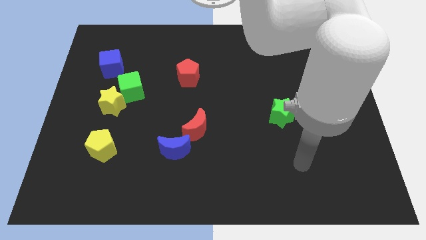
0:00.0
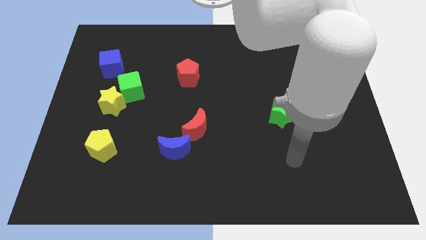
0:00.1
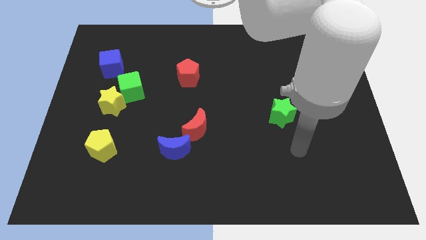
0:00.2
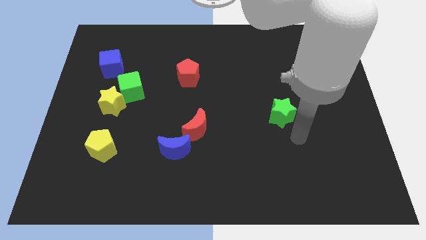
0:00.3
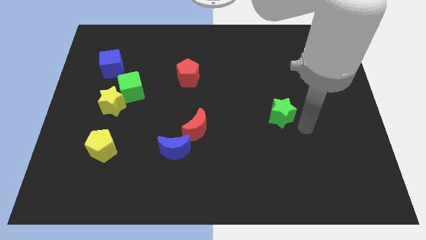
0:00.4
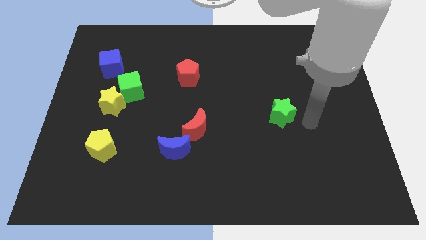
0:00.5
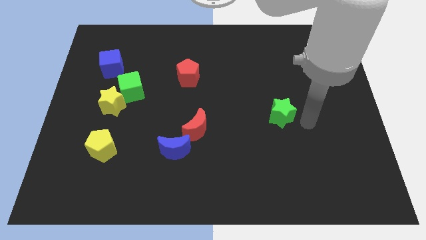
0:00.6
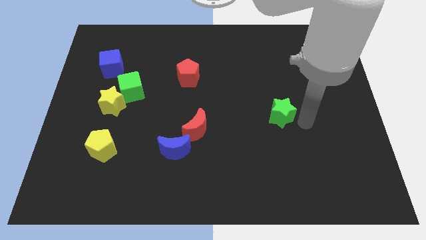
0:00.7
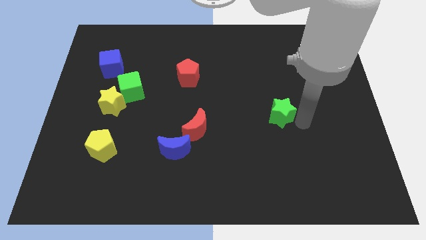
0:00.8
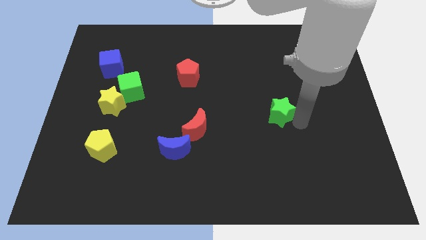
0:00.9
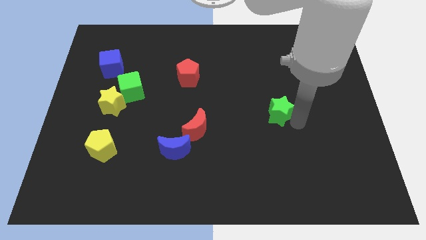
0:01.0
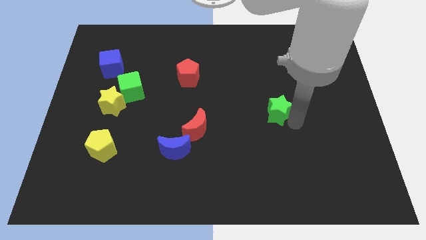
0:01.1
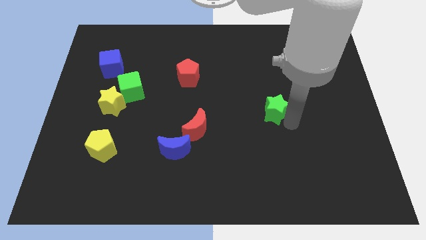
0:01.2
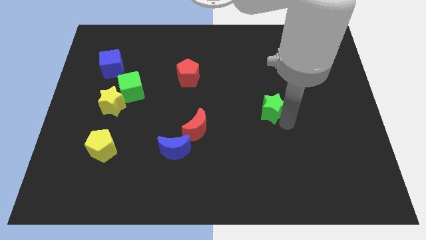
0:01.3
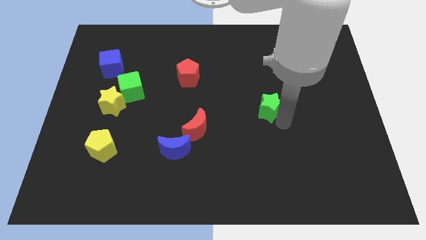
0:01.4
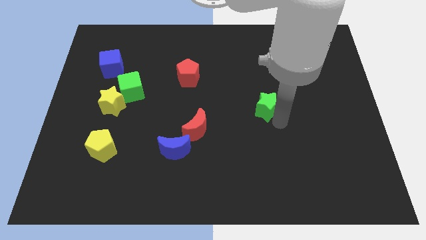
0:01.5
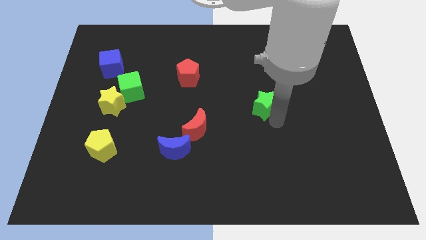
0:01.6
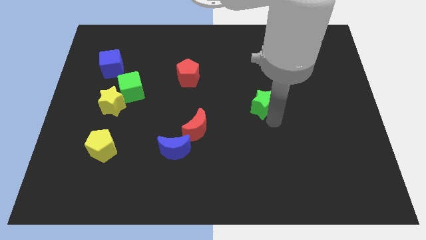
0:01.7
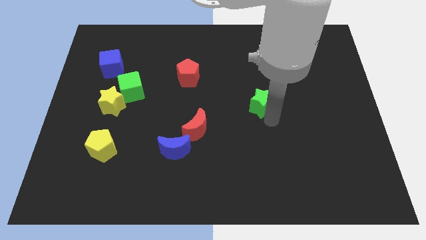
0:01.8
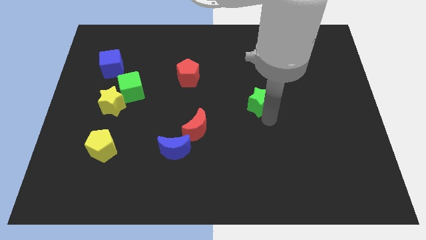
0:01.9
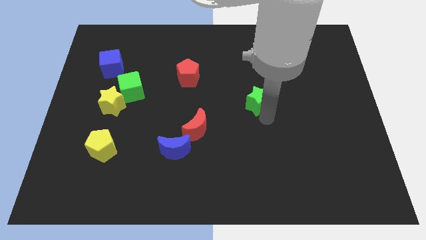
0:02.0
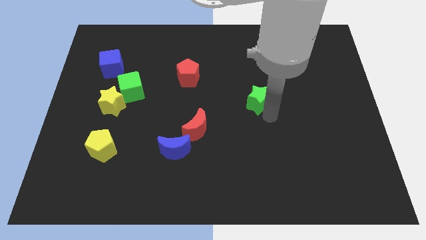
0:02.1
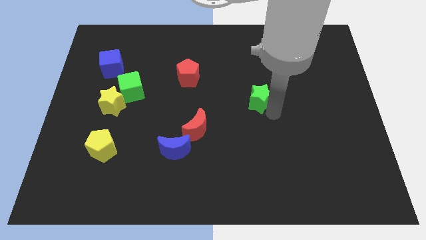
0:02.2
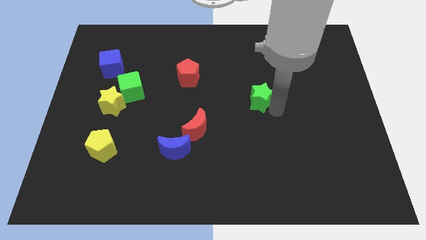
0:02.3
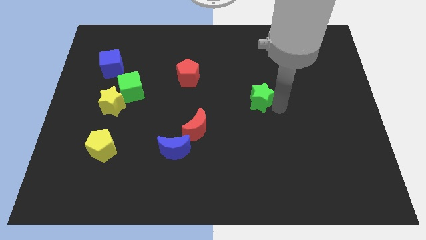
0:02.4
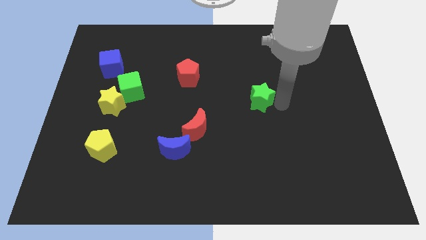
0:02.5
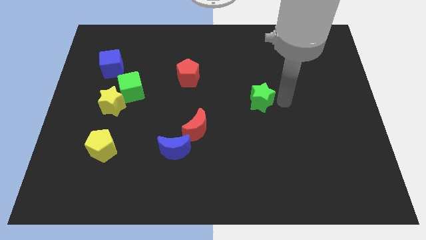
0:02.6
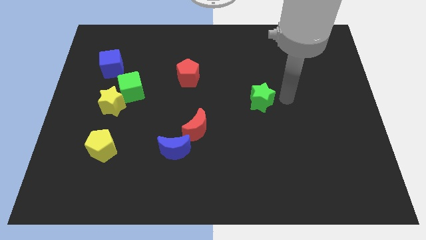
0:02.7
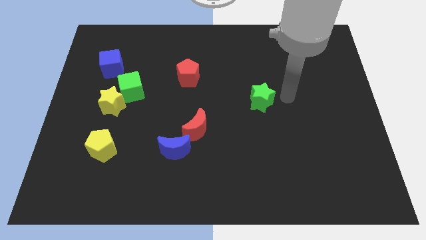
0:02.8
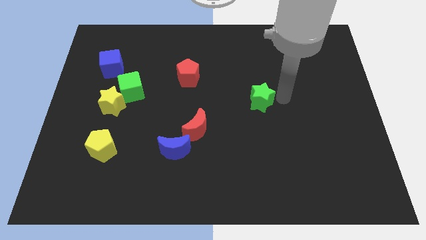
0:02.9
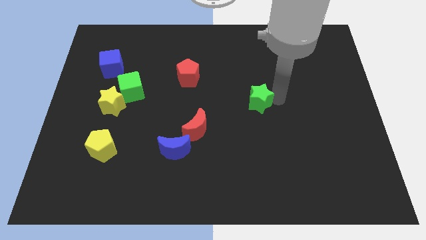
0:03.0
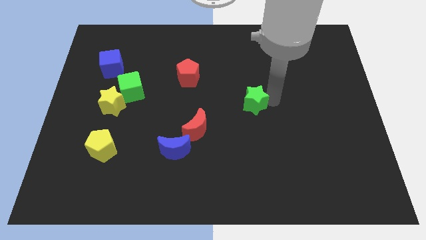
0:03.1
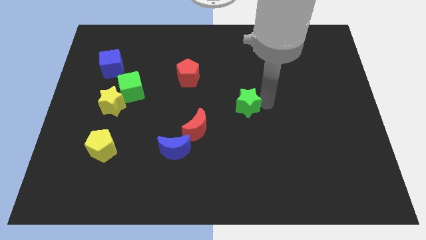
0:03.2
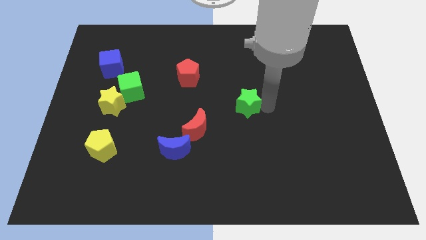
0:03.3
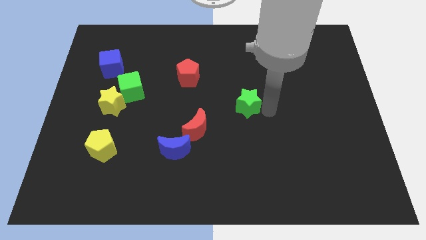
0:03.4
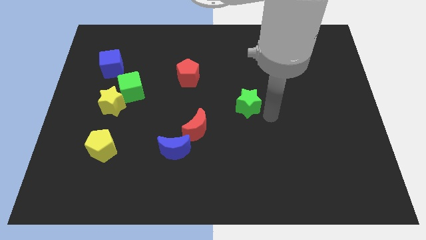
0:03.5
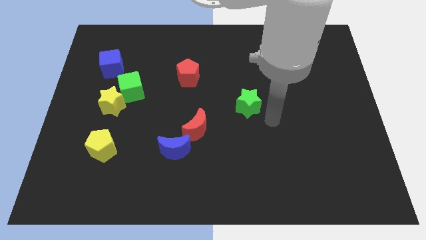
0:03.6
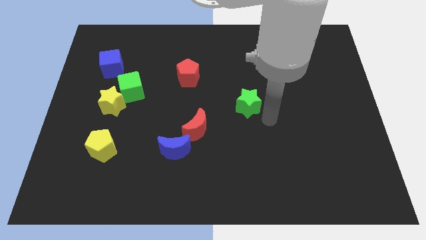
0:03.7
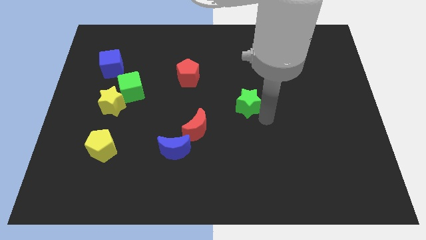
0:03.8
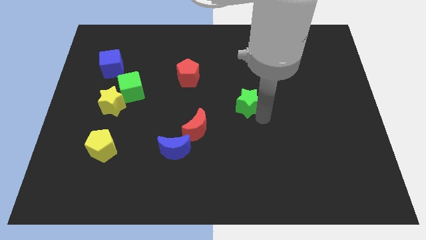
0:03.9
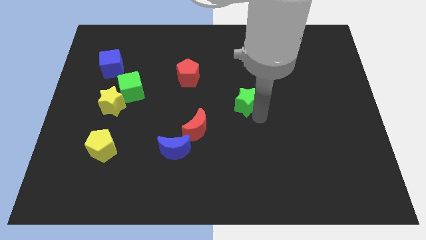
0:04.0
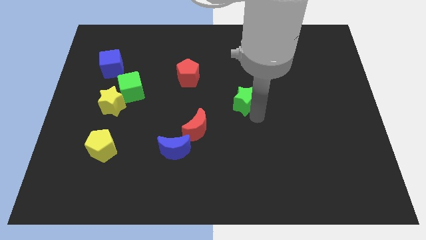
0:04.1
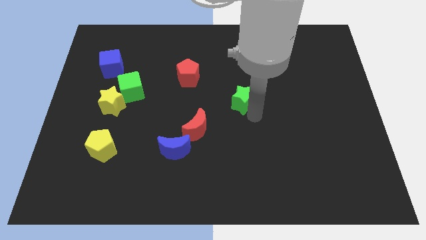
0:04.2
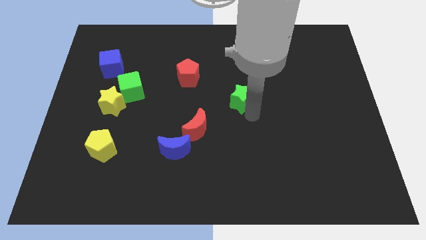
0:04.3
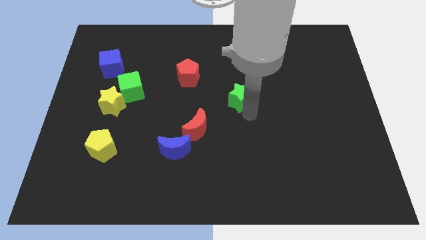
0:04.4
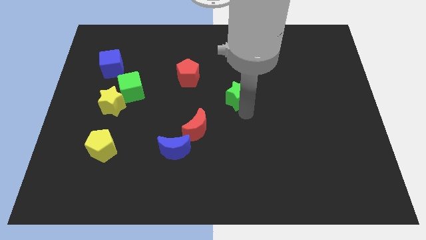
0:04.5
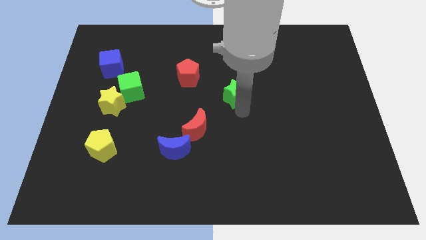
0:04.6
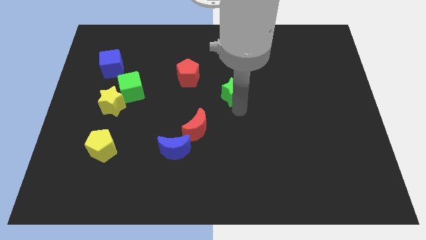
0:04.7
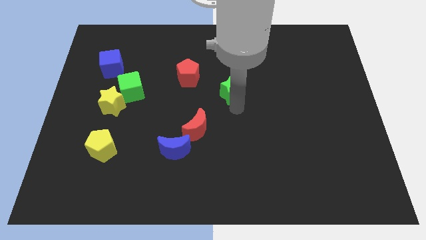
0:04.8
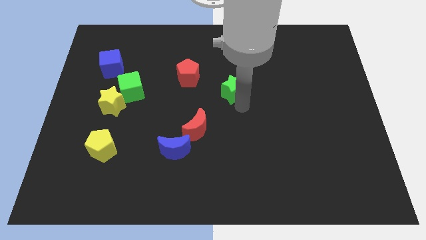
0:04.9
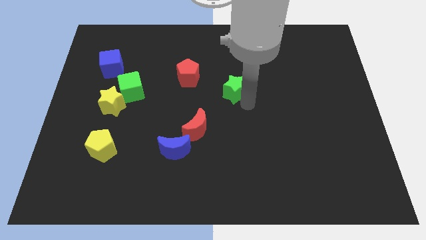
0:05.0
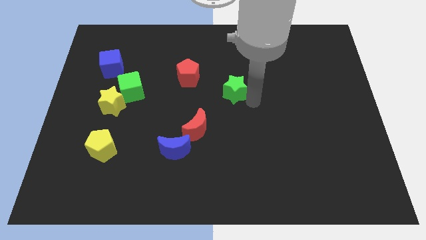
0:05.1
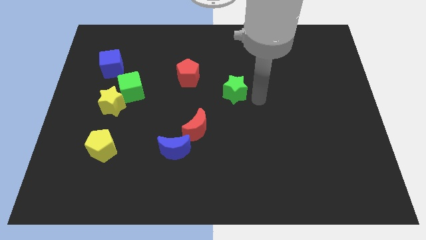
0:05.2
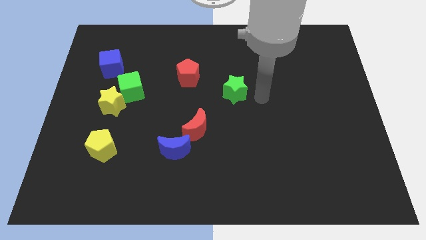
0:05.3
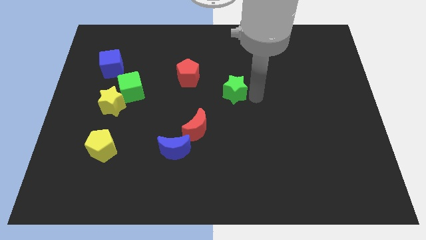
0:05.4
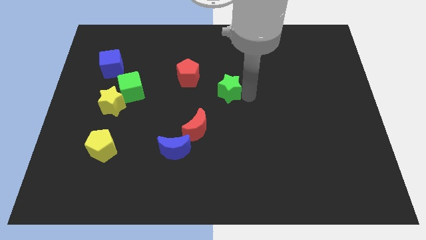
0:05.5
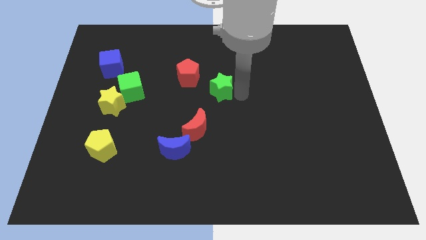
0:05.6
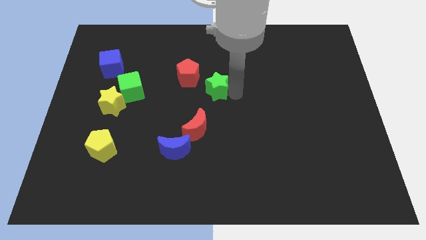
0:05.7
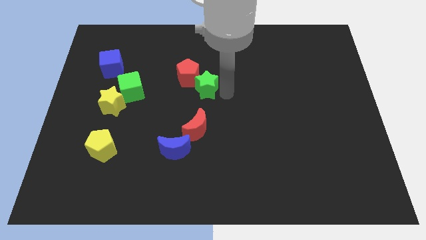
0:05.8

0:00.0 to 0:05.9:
slide the green star towards the red pentagon

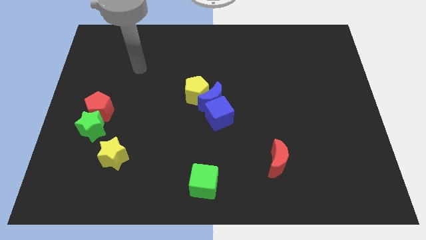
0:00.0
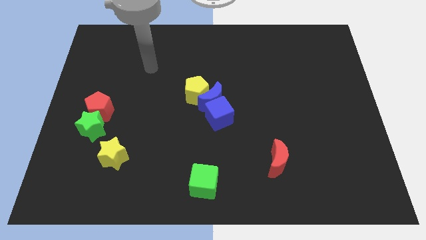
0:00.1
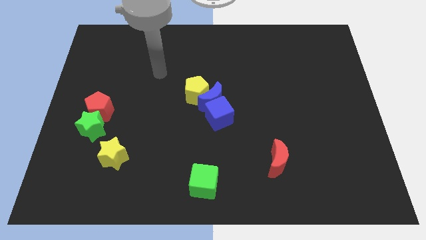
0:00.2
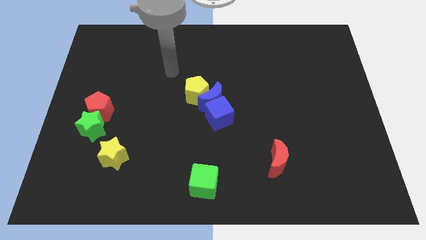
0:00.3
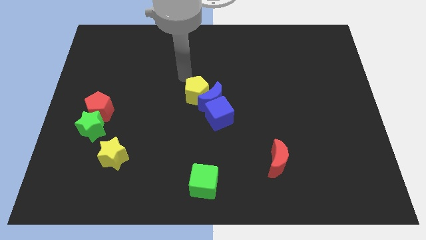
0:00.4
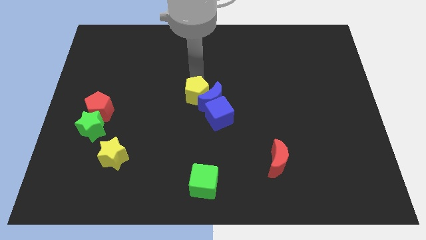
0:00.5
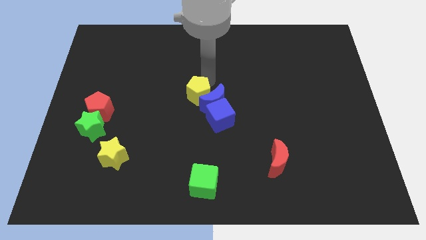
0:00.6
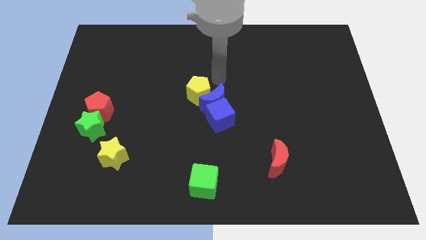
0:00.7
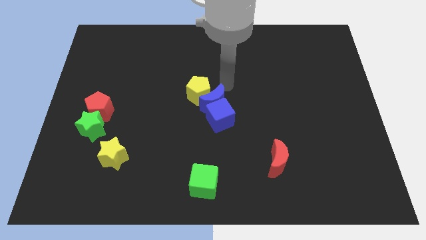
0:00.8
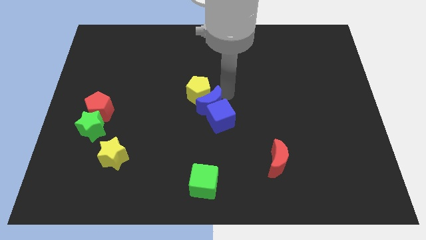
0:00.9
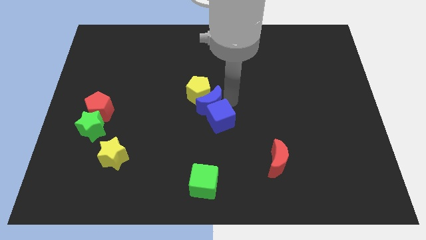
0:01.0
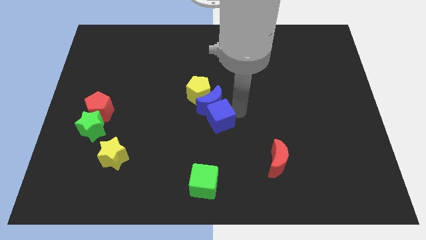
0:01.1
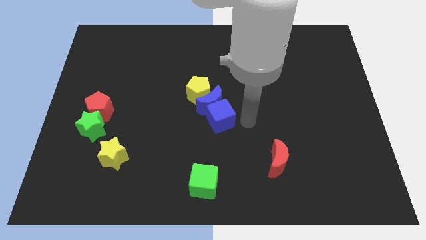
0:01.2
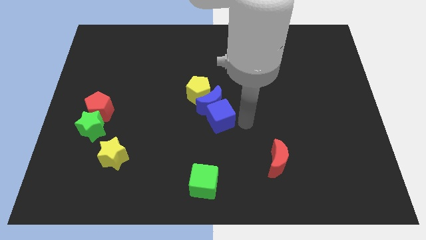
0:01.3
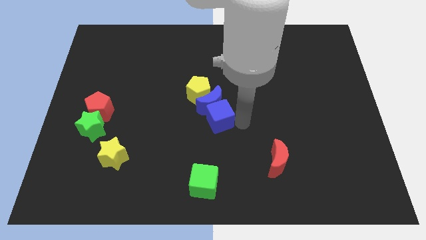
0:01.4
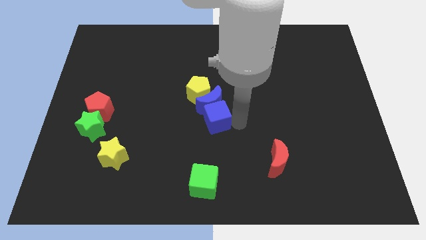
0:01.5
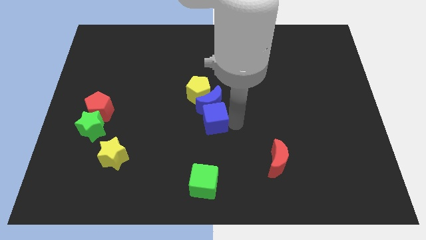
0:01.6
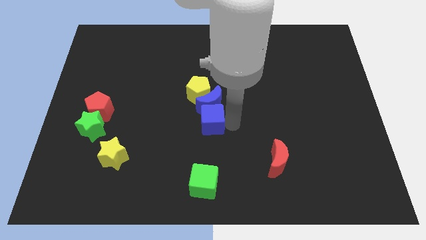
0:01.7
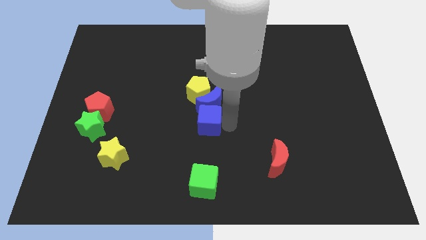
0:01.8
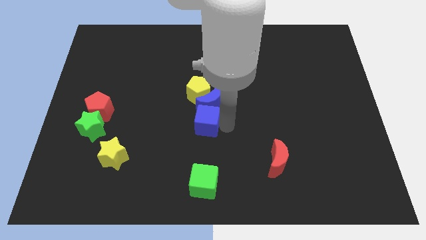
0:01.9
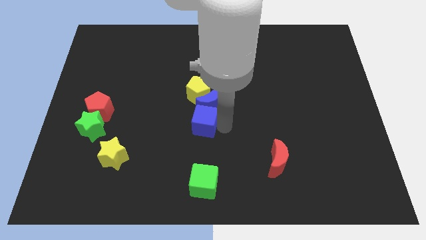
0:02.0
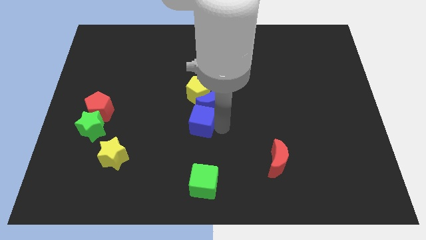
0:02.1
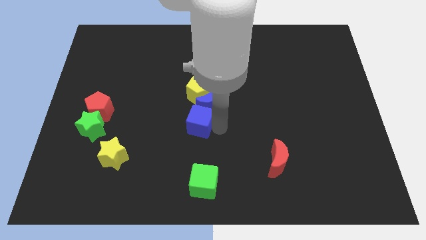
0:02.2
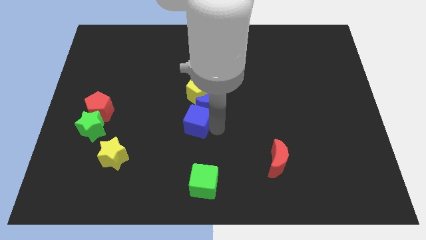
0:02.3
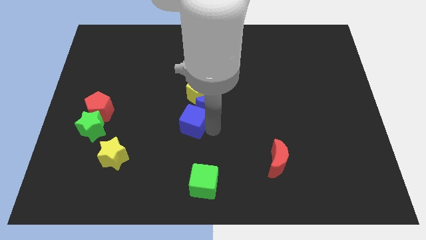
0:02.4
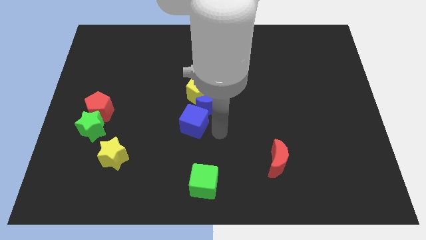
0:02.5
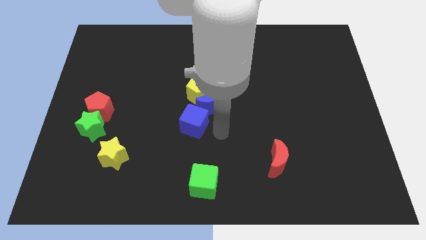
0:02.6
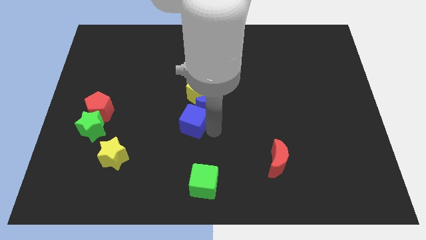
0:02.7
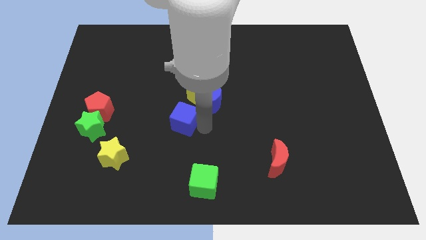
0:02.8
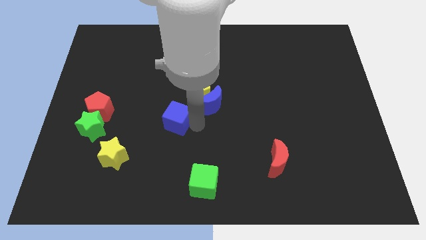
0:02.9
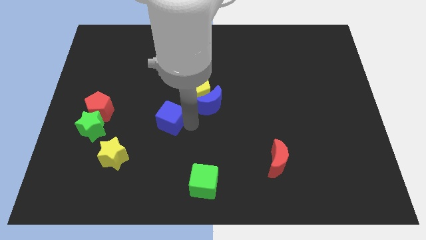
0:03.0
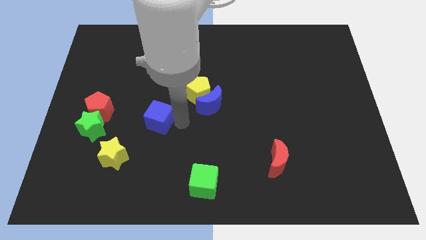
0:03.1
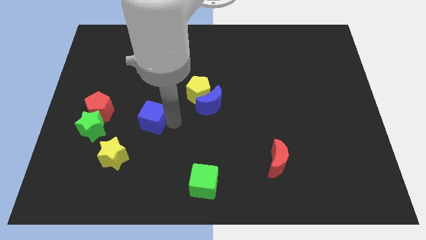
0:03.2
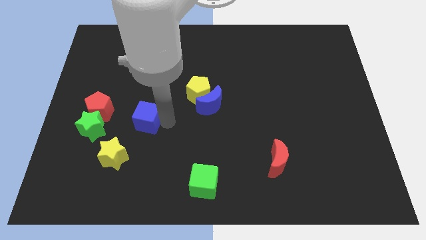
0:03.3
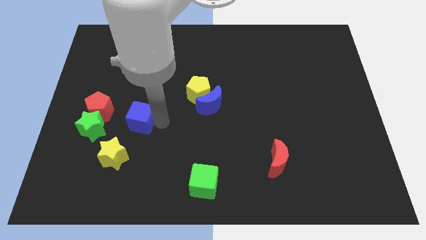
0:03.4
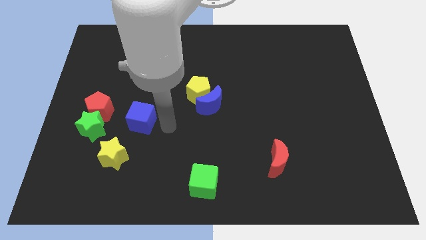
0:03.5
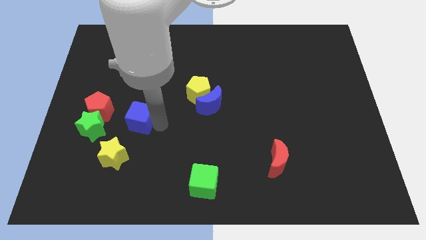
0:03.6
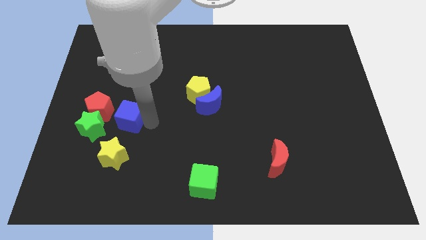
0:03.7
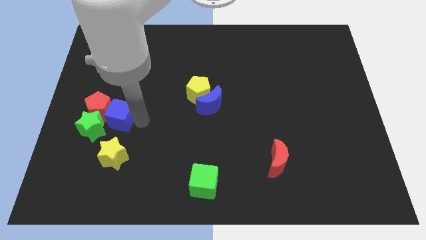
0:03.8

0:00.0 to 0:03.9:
put the blue cube towards the red pentagon
